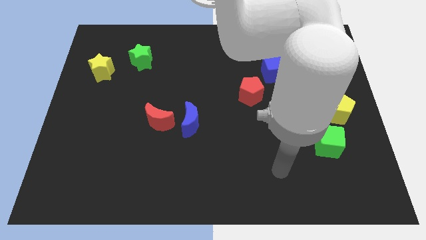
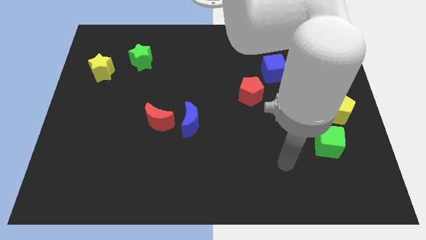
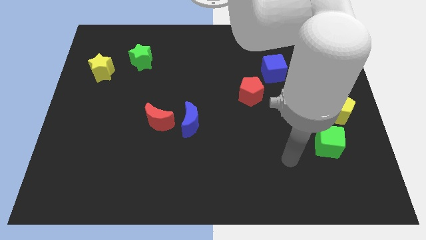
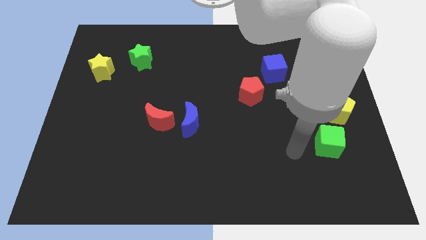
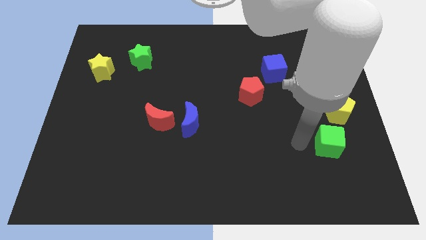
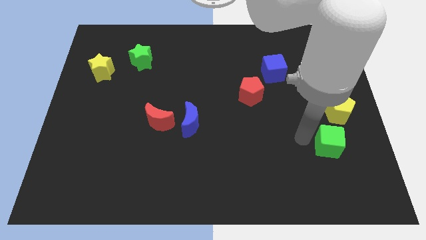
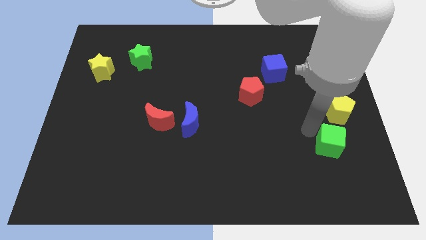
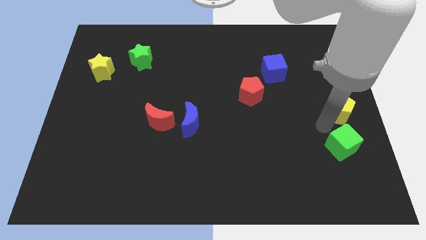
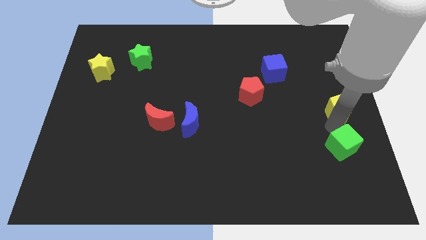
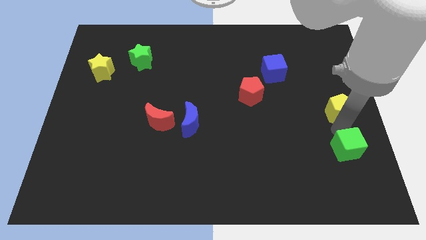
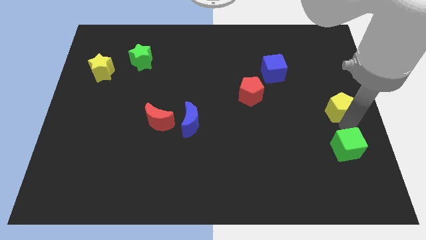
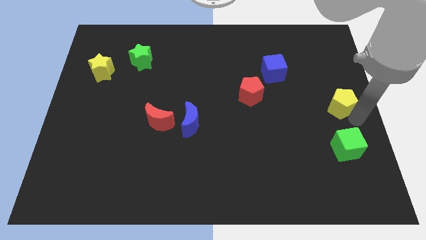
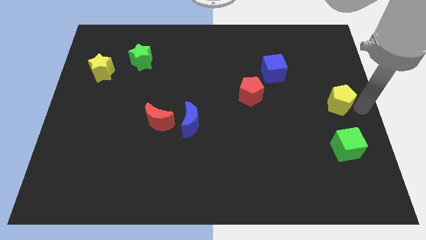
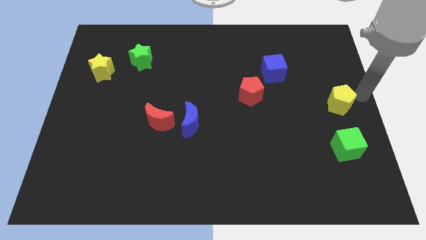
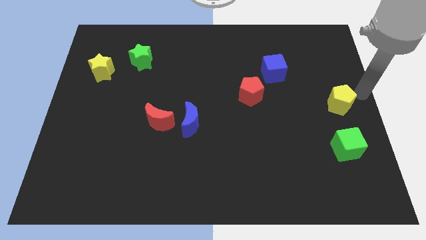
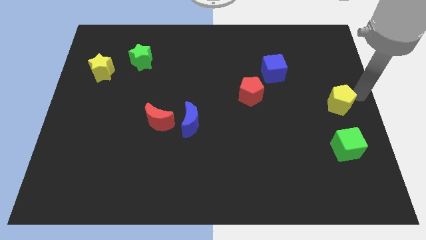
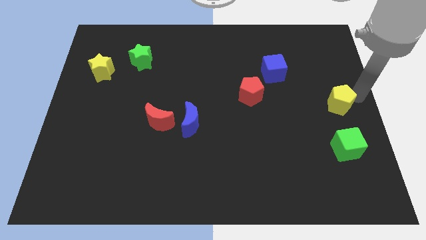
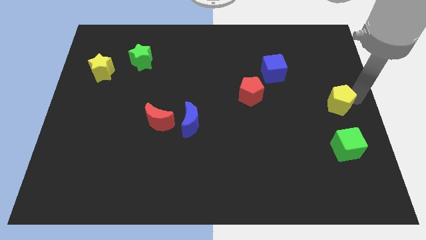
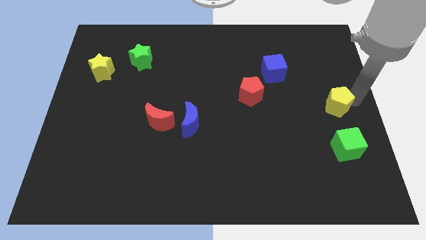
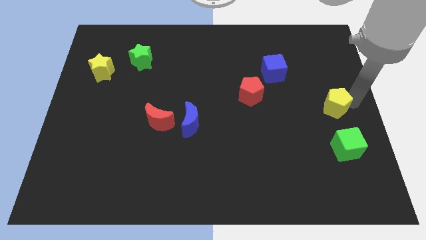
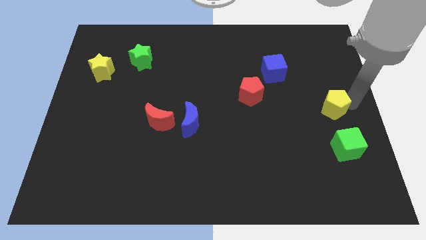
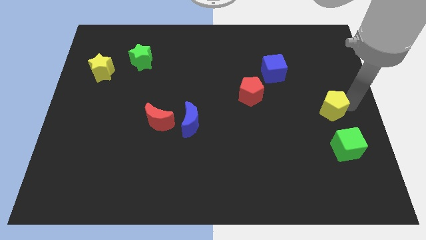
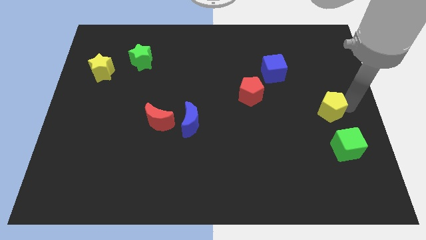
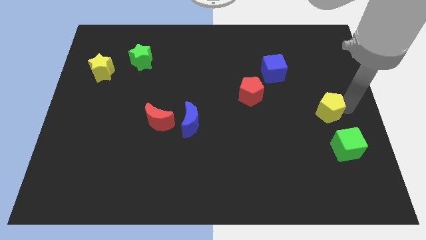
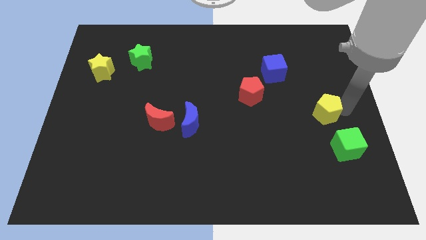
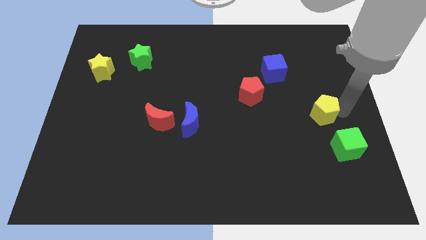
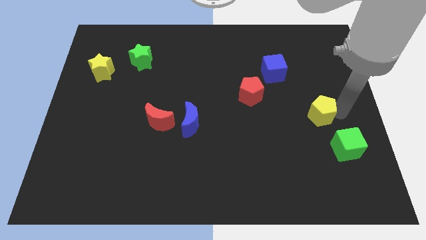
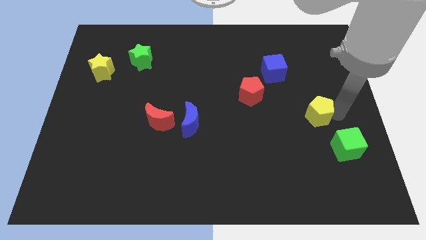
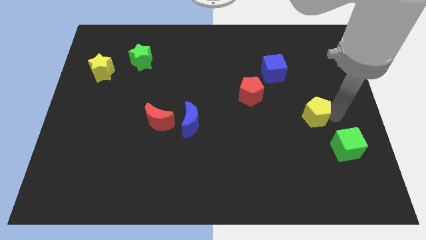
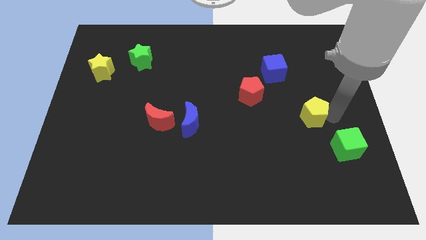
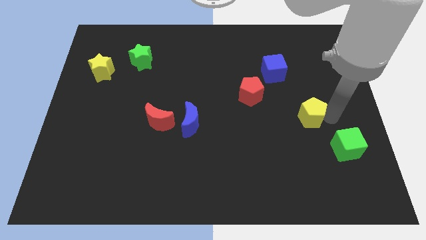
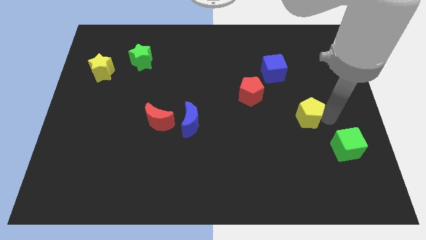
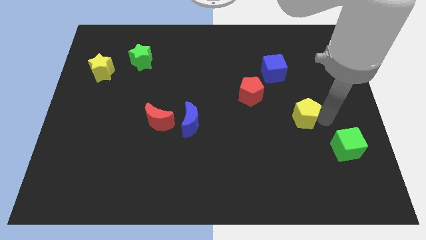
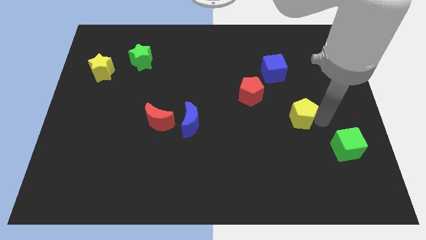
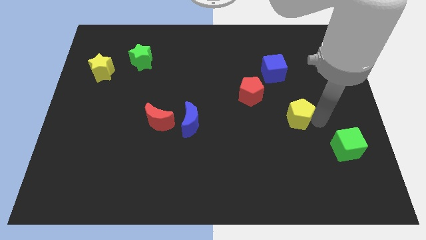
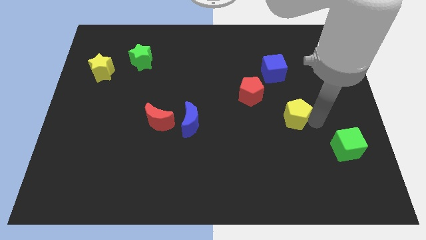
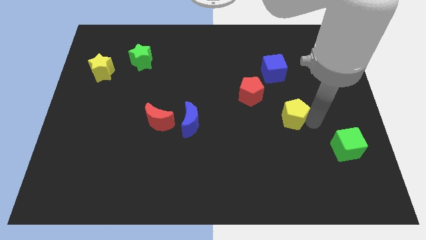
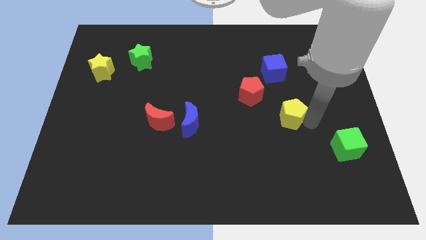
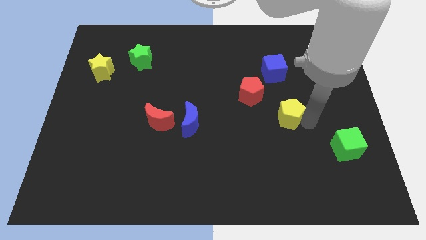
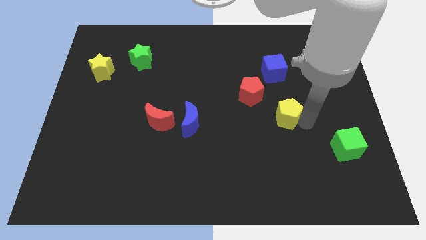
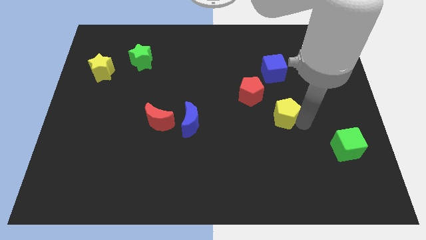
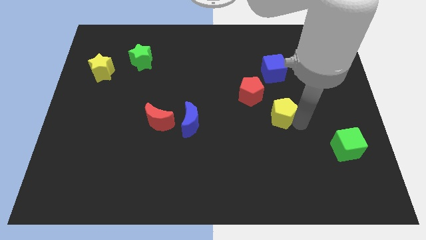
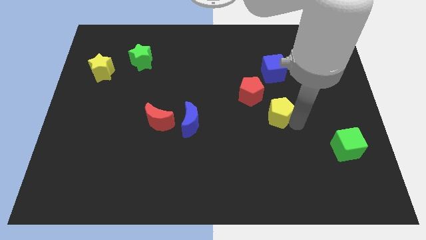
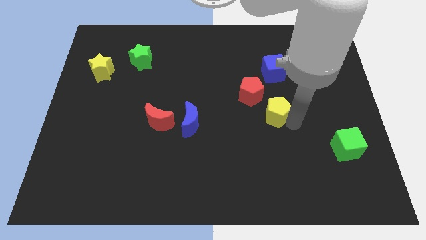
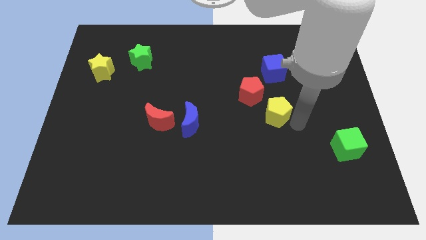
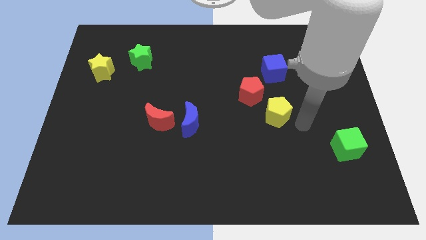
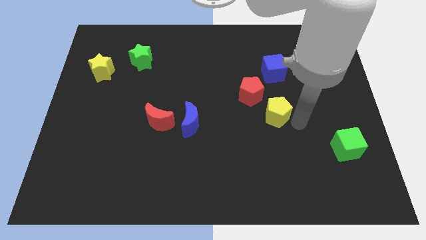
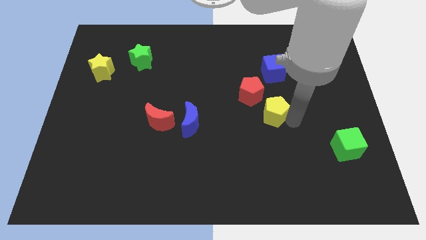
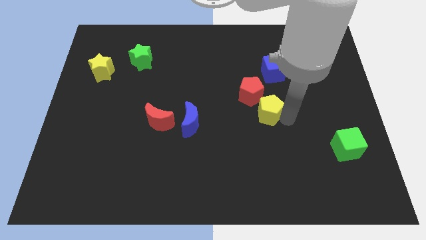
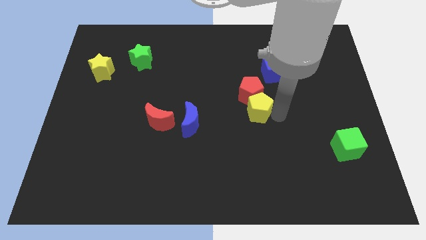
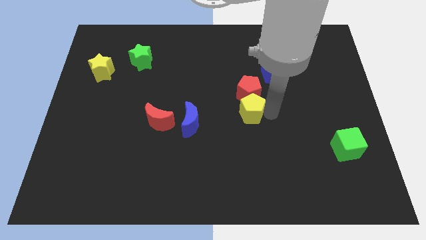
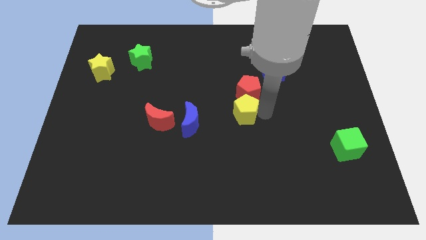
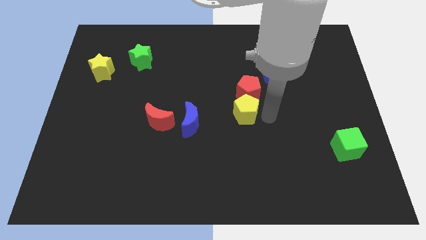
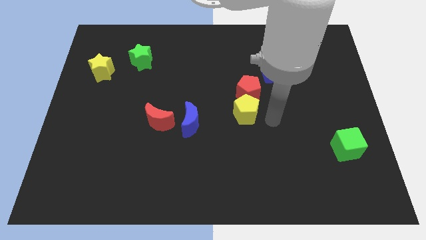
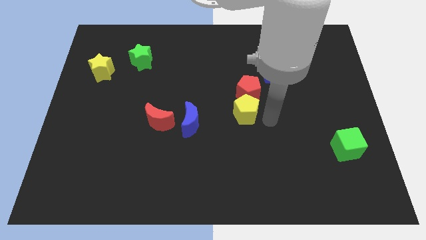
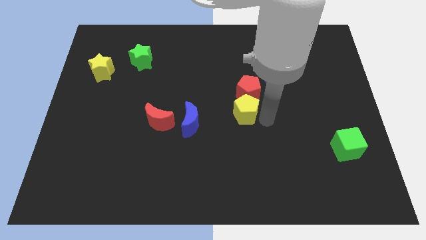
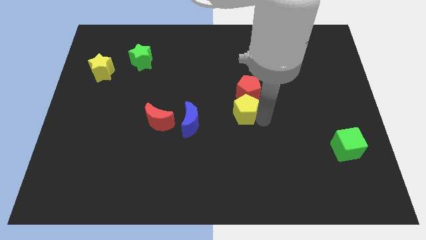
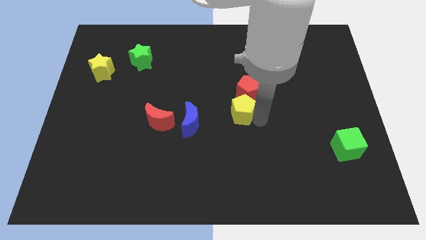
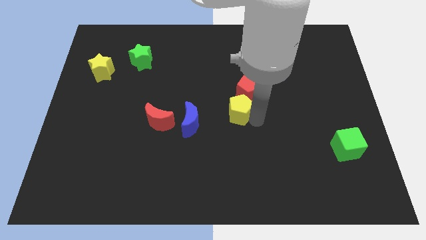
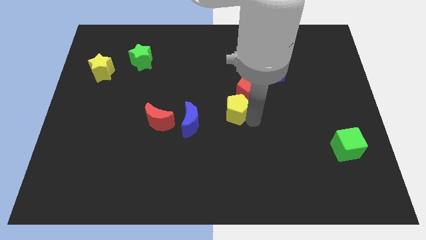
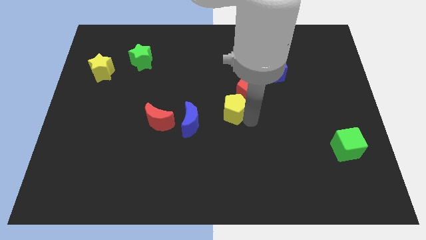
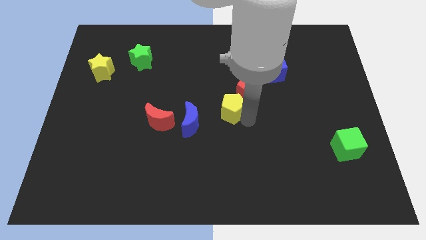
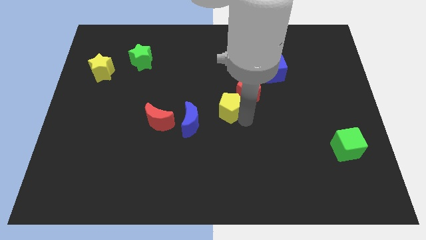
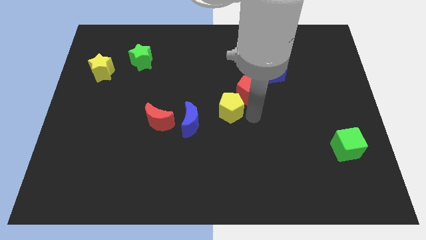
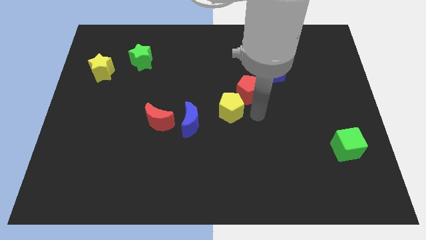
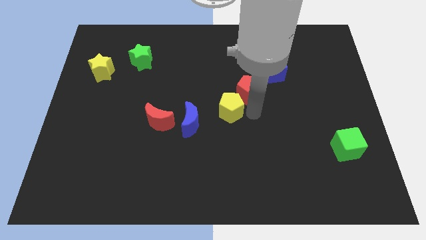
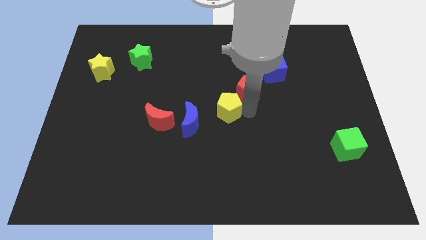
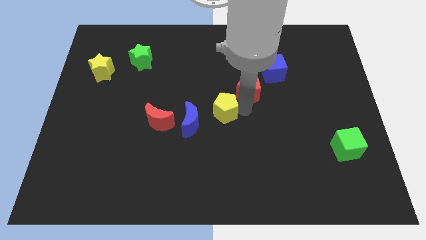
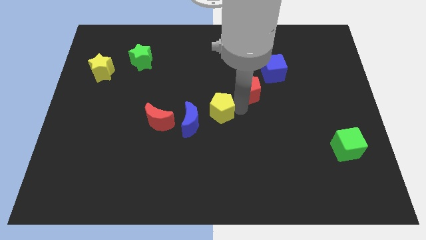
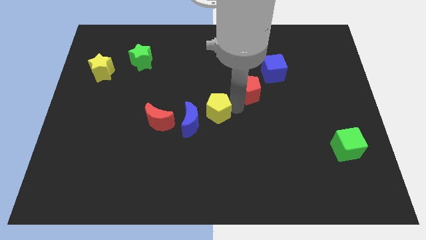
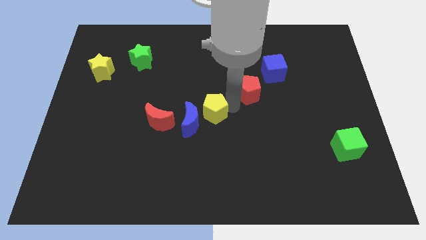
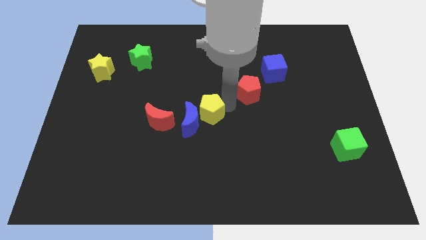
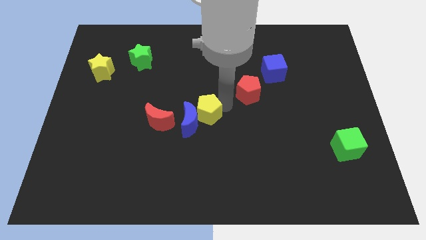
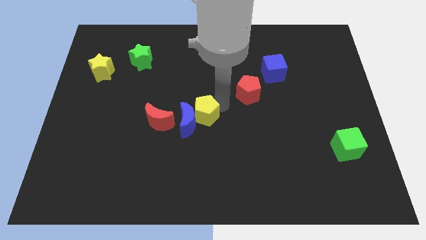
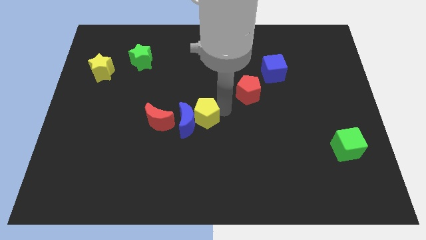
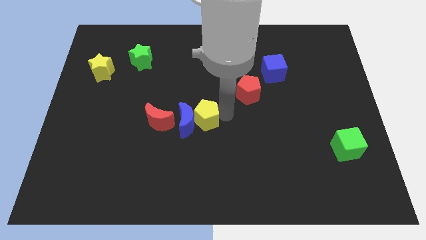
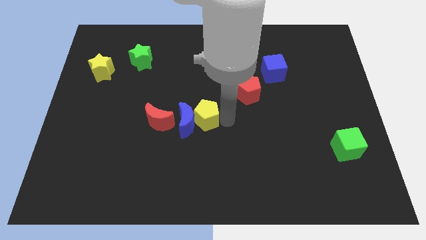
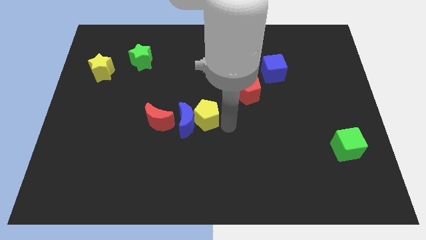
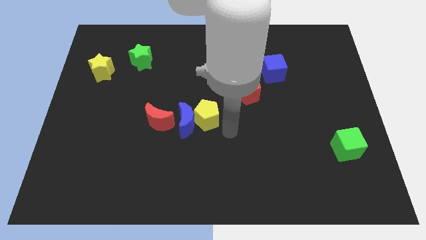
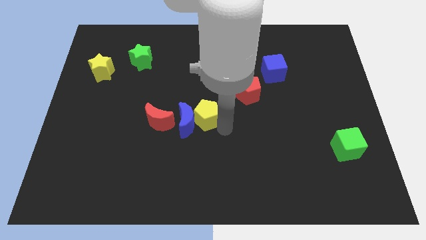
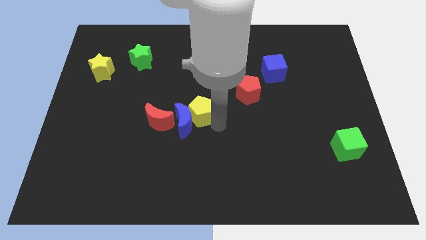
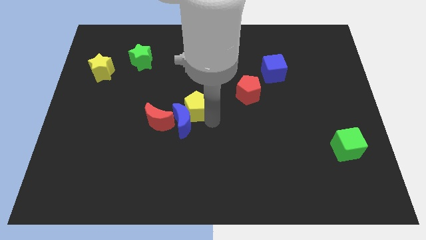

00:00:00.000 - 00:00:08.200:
put the yellow pentagon to the top right of the red moon
